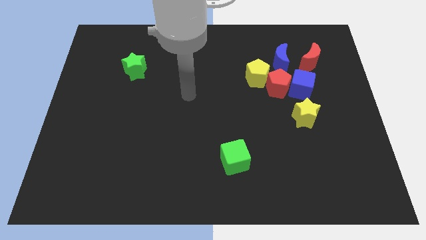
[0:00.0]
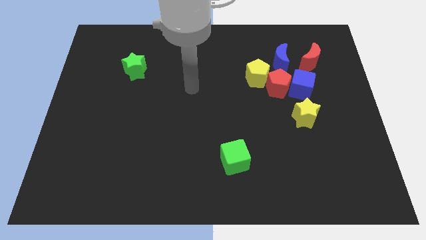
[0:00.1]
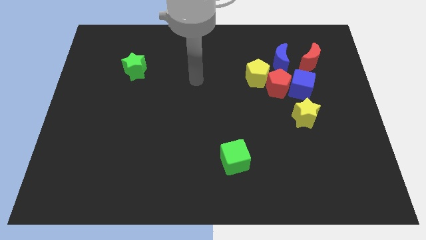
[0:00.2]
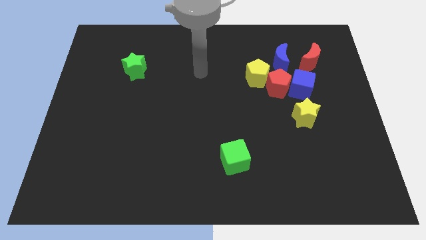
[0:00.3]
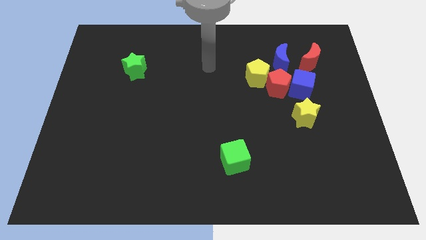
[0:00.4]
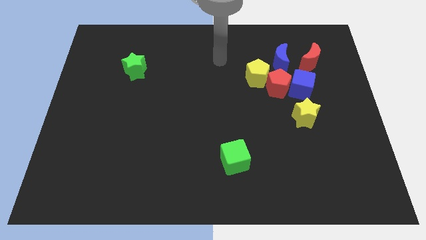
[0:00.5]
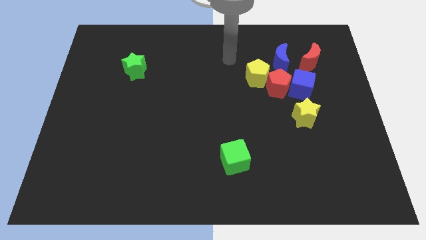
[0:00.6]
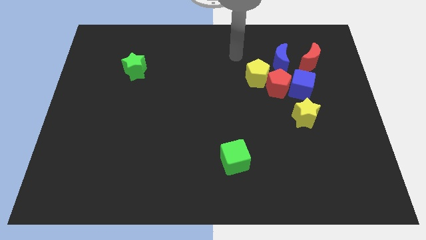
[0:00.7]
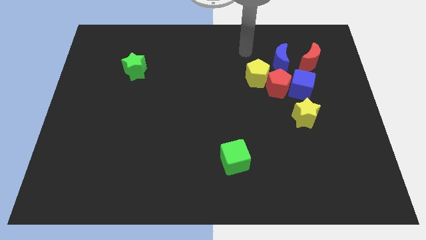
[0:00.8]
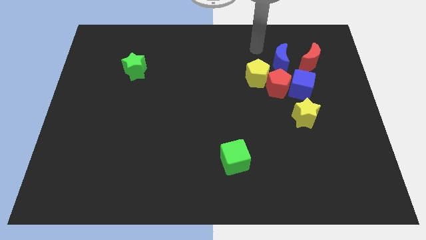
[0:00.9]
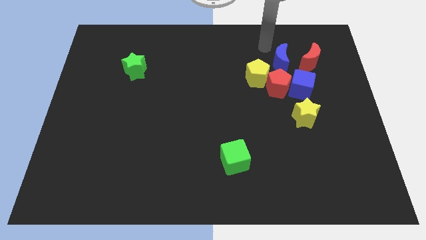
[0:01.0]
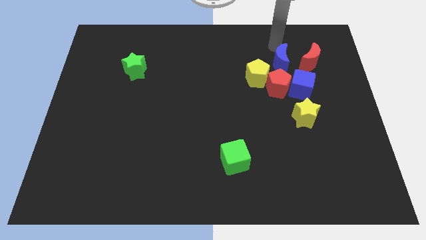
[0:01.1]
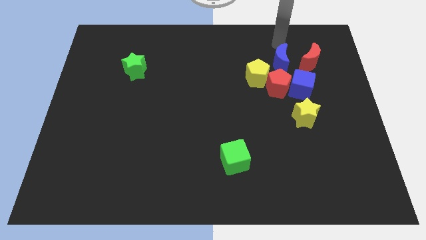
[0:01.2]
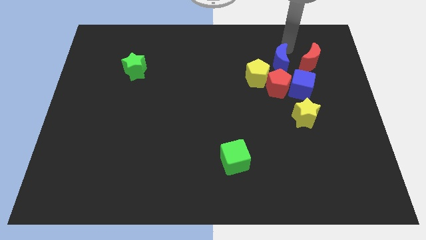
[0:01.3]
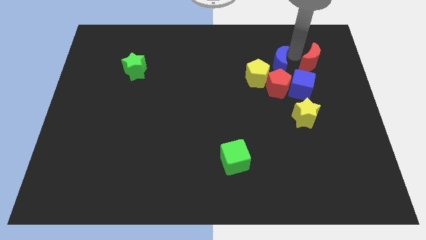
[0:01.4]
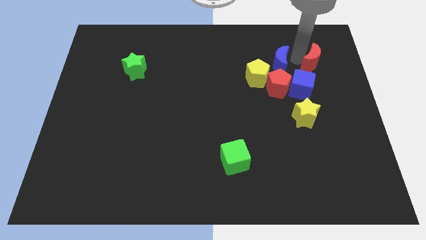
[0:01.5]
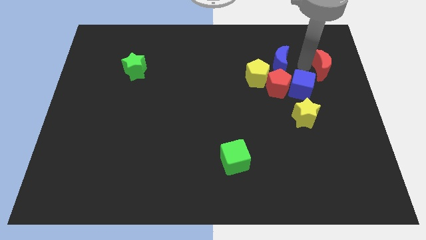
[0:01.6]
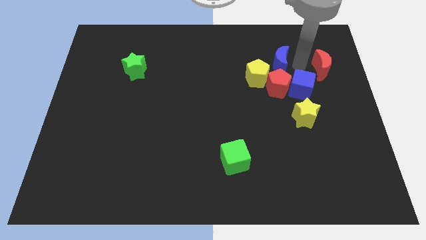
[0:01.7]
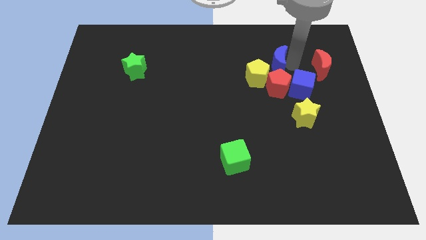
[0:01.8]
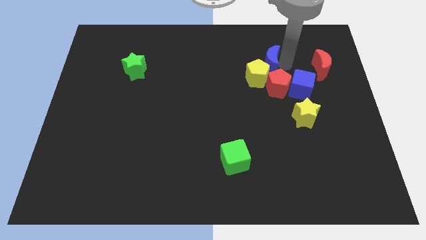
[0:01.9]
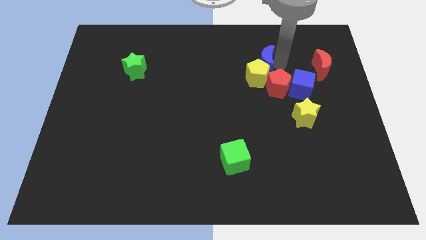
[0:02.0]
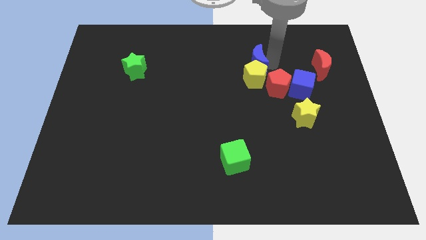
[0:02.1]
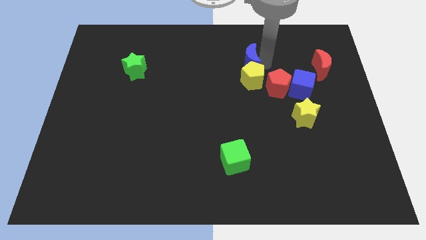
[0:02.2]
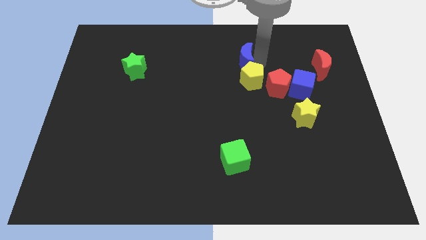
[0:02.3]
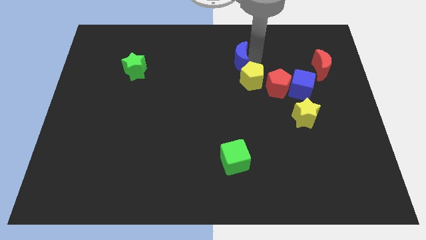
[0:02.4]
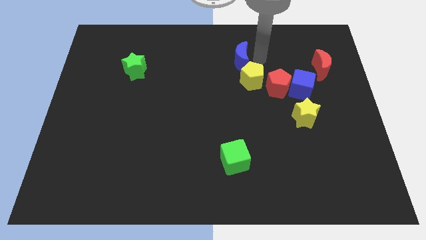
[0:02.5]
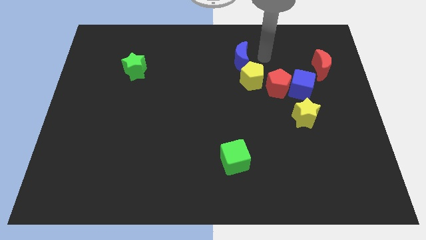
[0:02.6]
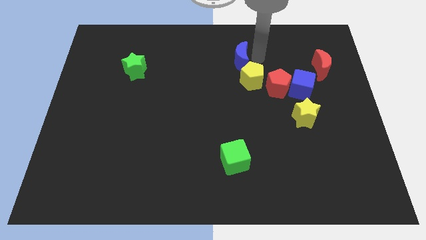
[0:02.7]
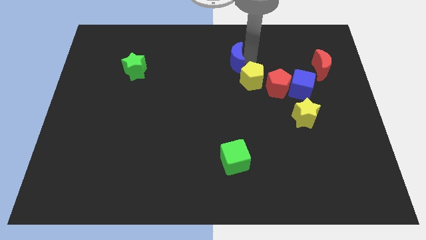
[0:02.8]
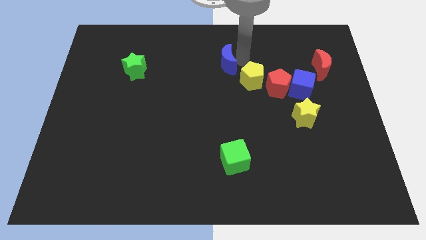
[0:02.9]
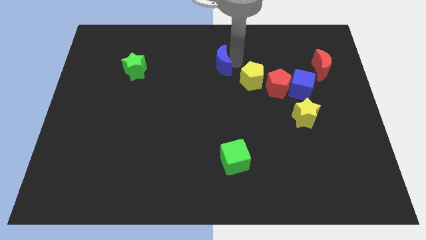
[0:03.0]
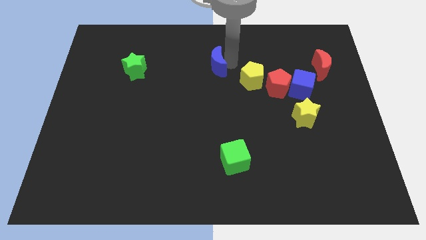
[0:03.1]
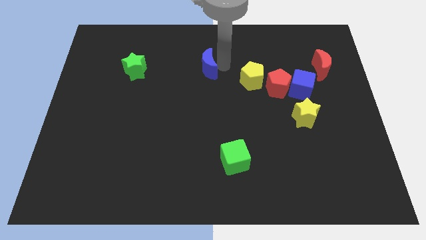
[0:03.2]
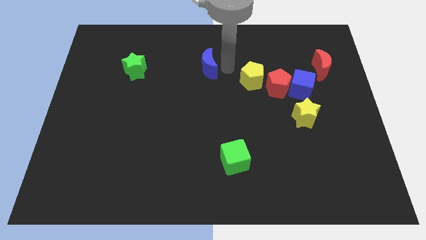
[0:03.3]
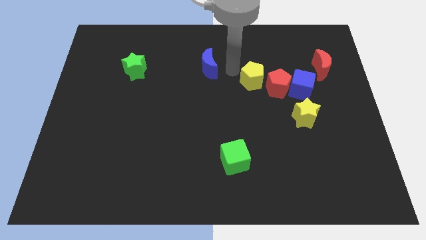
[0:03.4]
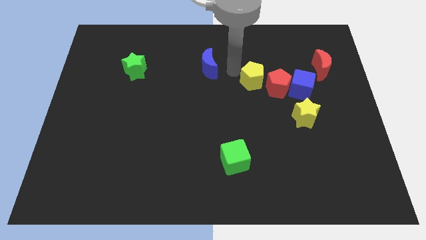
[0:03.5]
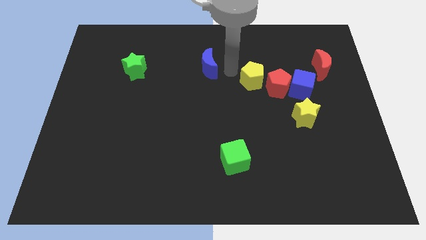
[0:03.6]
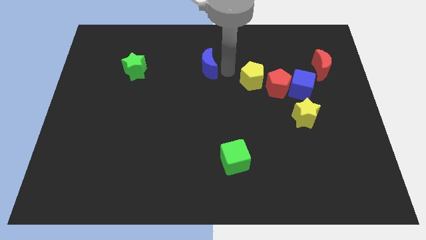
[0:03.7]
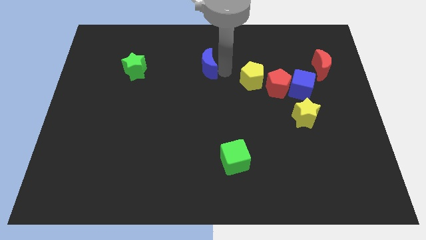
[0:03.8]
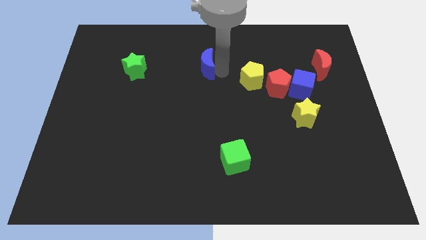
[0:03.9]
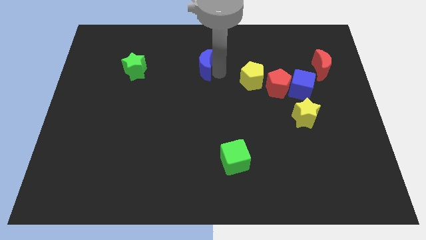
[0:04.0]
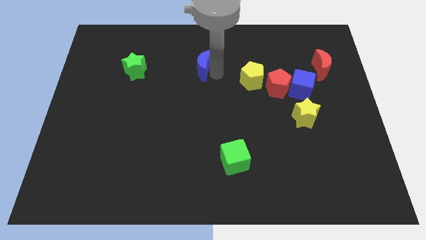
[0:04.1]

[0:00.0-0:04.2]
push the blue moon to the left

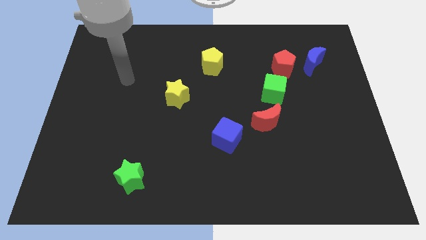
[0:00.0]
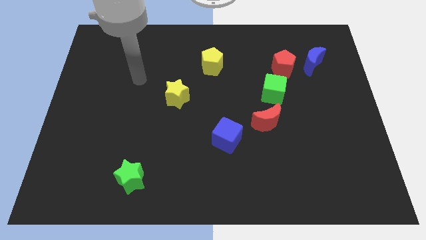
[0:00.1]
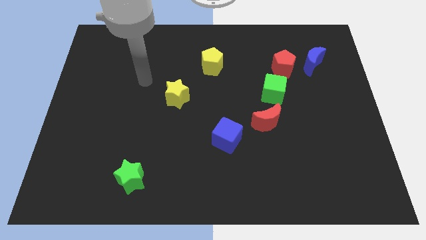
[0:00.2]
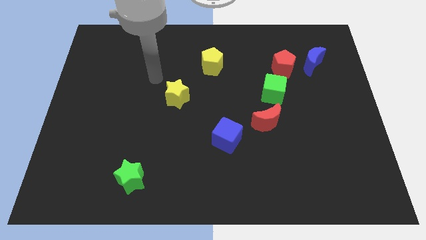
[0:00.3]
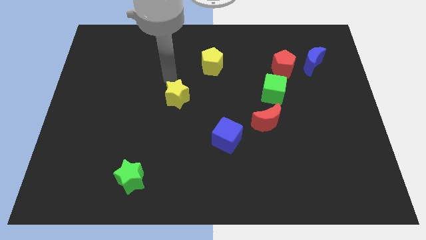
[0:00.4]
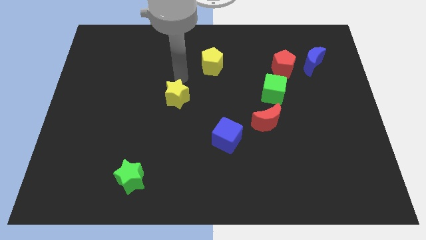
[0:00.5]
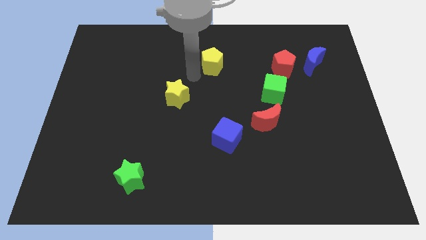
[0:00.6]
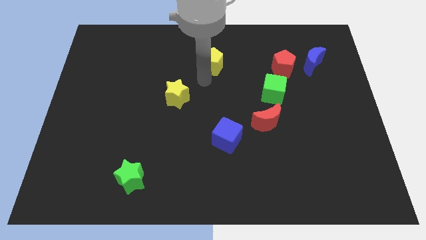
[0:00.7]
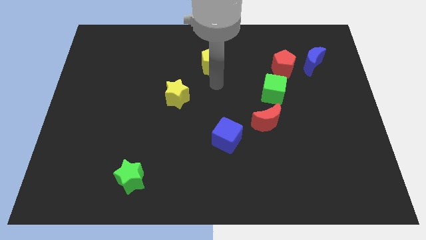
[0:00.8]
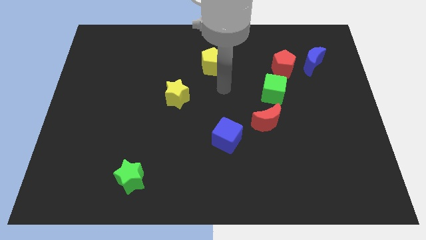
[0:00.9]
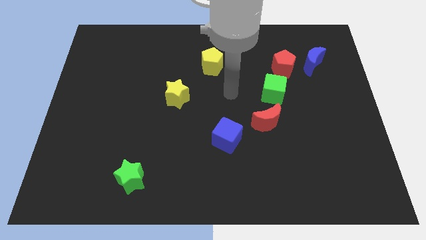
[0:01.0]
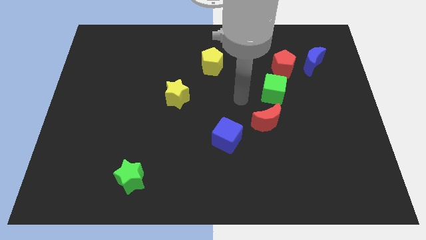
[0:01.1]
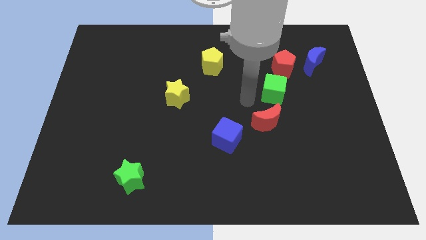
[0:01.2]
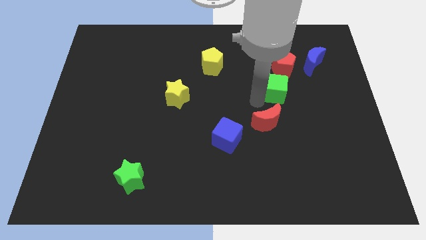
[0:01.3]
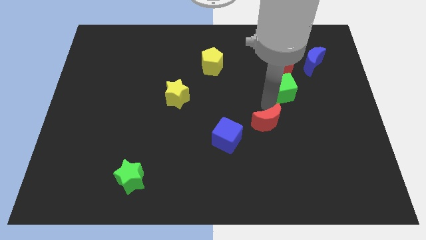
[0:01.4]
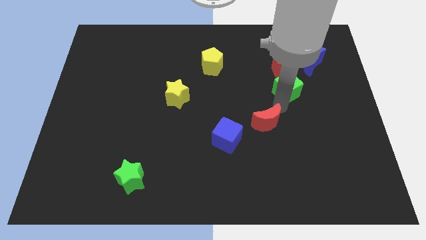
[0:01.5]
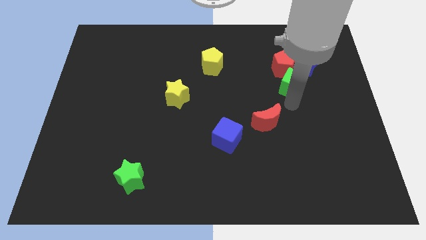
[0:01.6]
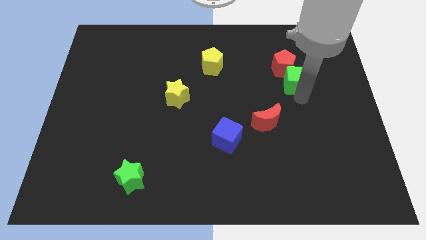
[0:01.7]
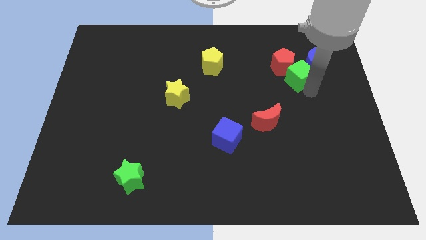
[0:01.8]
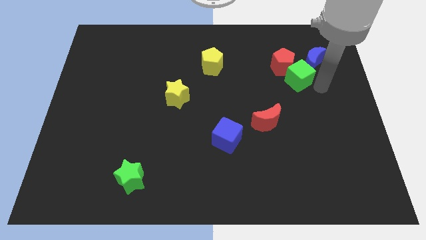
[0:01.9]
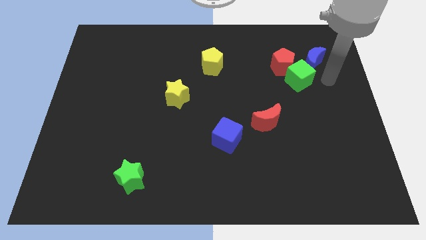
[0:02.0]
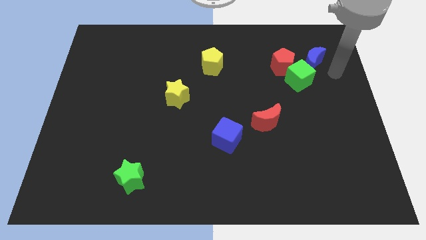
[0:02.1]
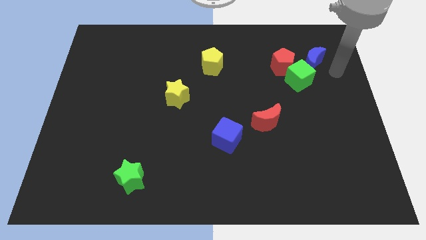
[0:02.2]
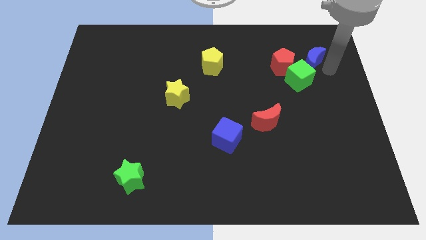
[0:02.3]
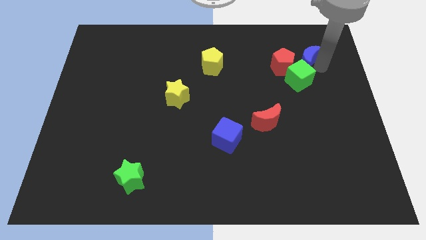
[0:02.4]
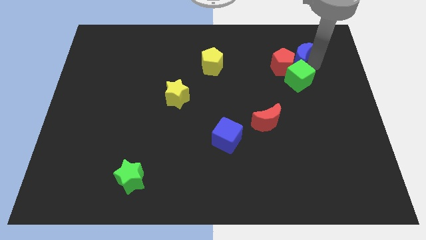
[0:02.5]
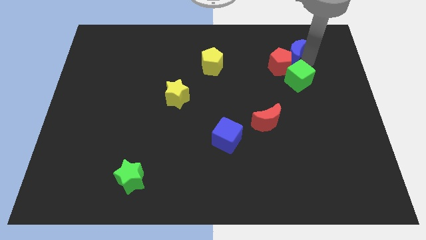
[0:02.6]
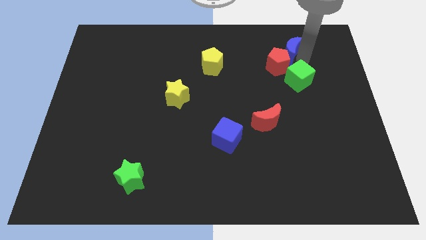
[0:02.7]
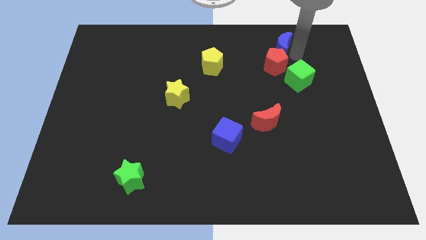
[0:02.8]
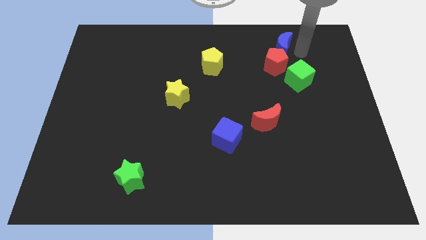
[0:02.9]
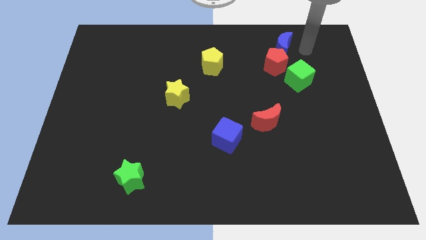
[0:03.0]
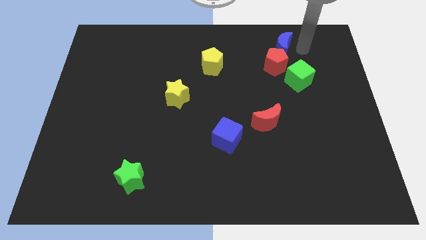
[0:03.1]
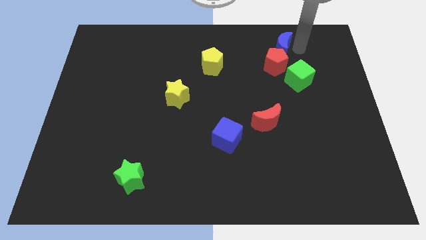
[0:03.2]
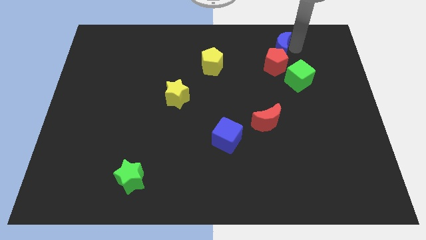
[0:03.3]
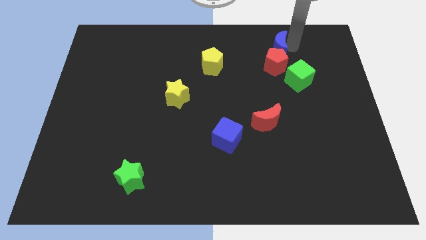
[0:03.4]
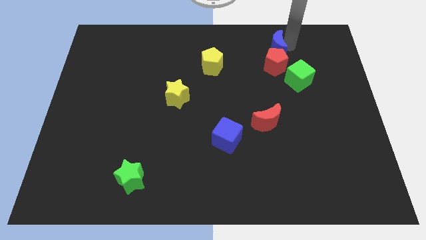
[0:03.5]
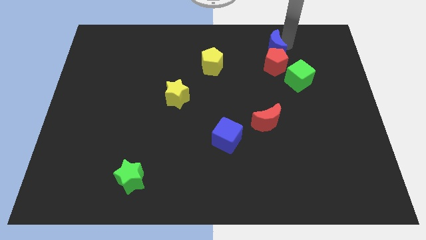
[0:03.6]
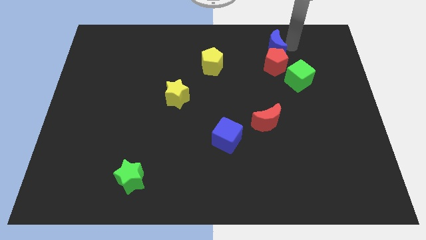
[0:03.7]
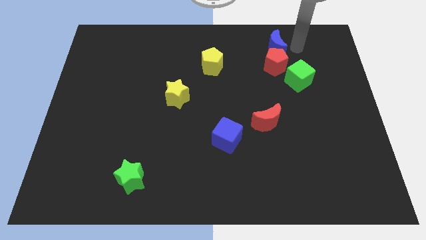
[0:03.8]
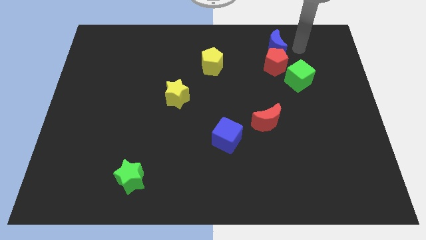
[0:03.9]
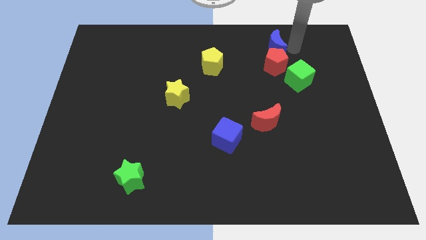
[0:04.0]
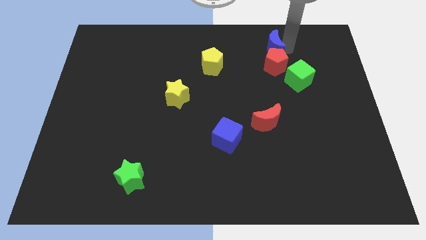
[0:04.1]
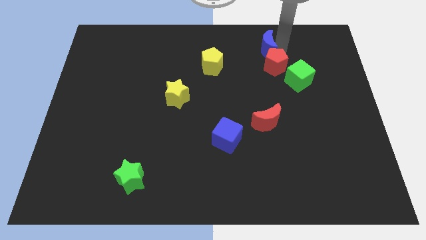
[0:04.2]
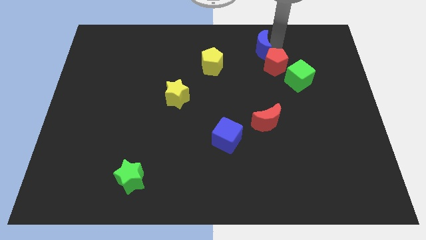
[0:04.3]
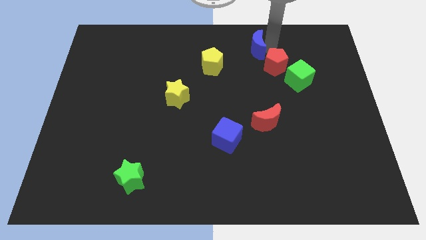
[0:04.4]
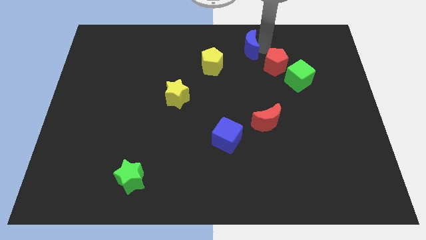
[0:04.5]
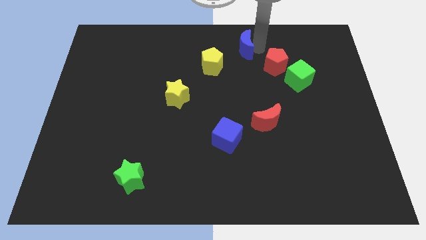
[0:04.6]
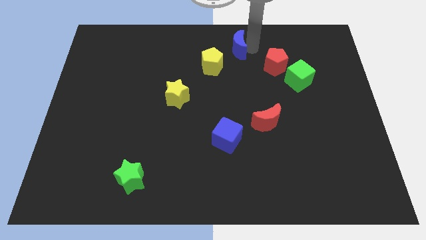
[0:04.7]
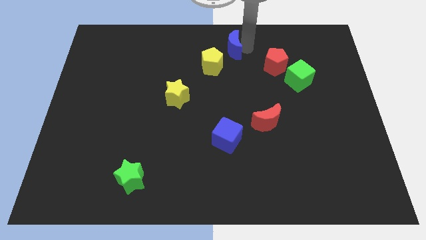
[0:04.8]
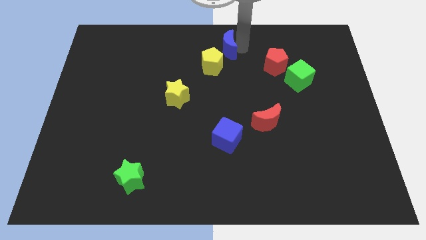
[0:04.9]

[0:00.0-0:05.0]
move the blue moon to the left
